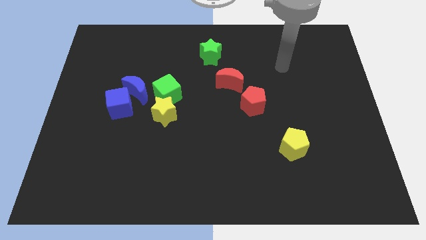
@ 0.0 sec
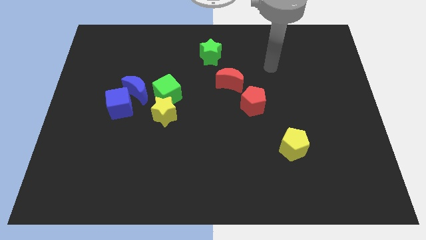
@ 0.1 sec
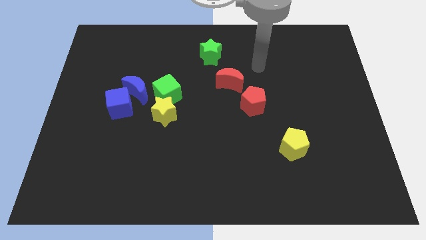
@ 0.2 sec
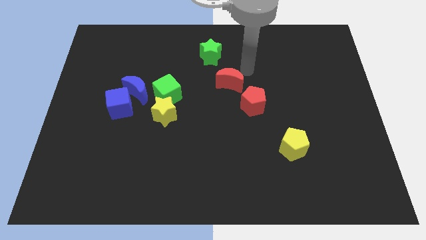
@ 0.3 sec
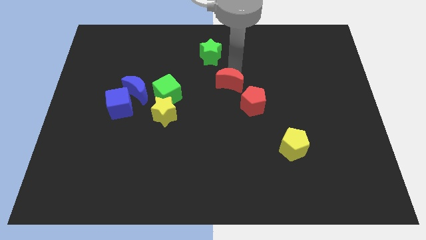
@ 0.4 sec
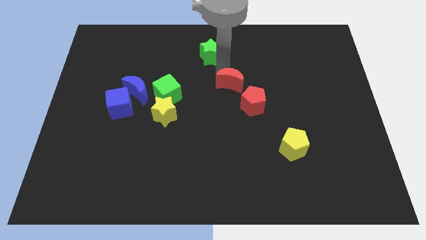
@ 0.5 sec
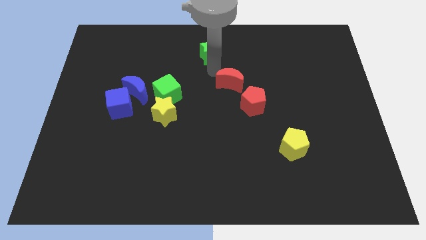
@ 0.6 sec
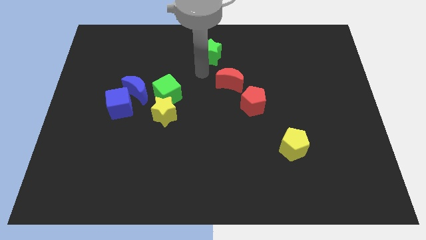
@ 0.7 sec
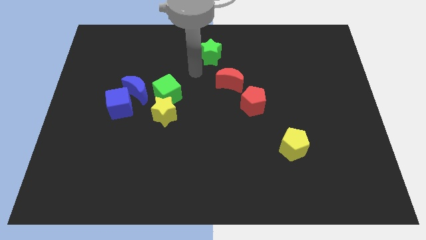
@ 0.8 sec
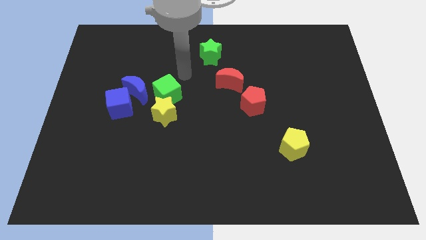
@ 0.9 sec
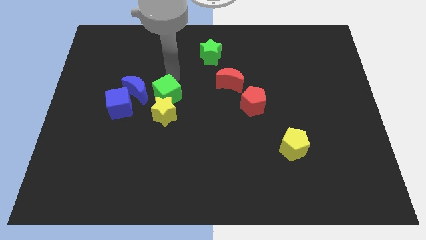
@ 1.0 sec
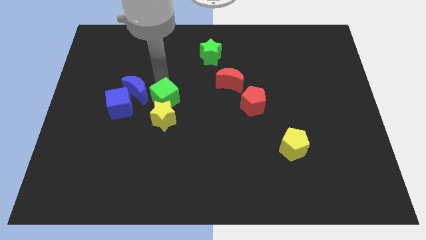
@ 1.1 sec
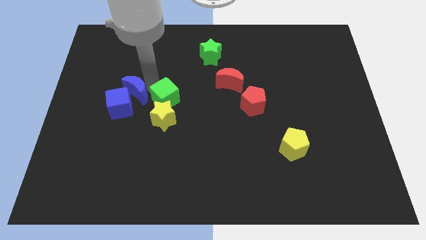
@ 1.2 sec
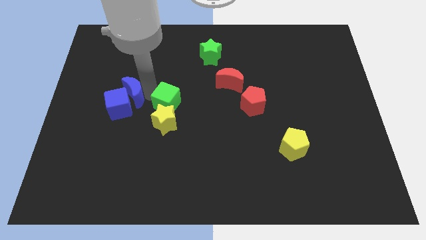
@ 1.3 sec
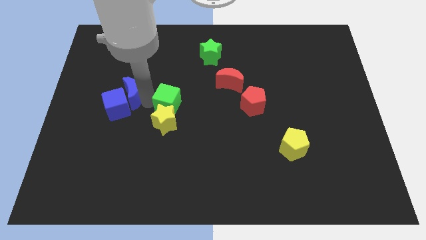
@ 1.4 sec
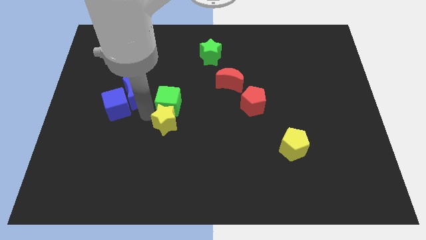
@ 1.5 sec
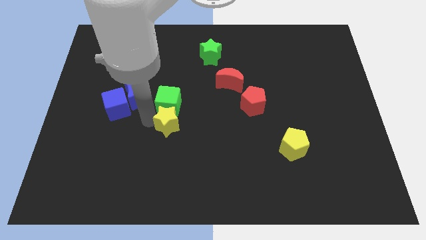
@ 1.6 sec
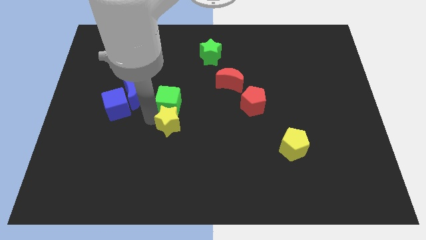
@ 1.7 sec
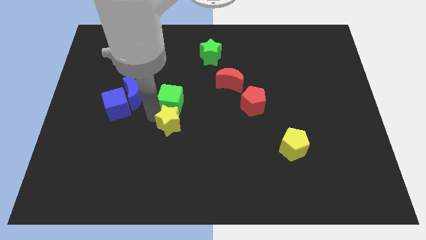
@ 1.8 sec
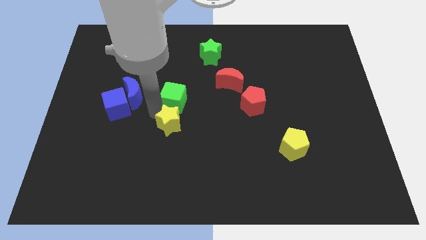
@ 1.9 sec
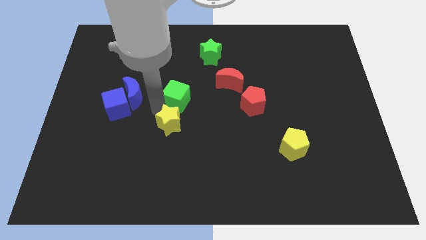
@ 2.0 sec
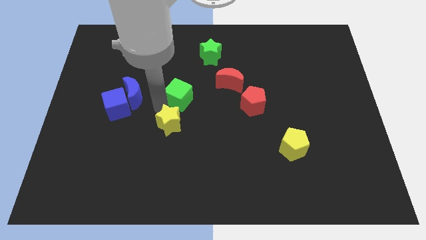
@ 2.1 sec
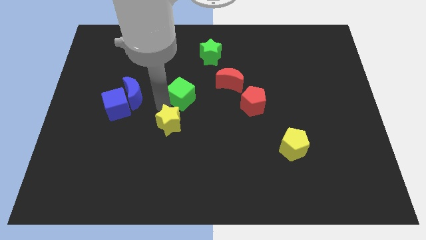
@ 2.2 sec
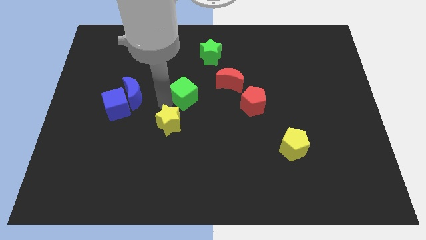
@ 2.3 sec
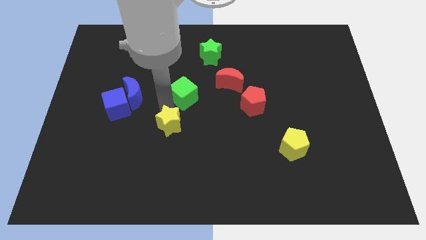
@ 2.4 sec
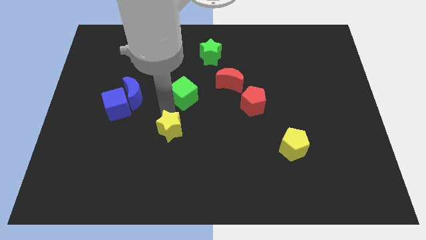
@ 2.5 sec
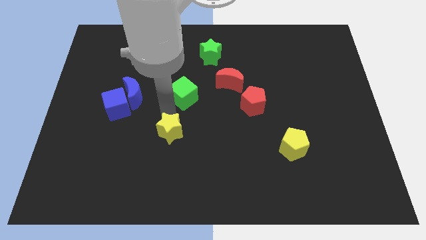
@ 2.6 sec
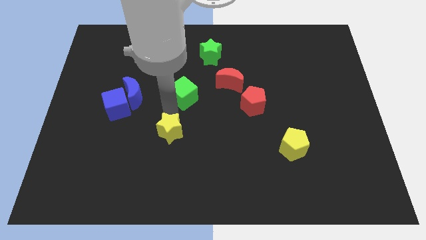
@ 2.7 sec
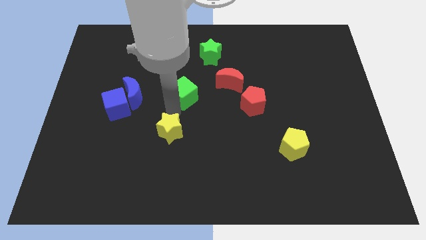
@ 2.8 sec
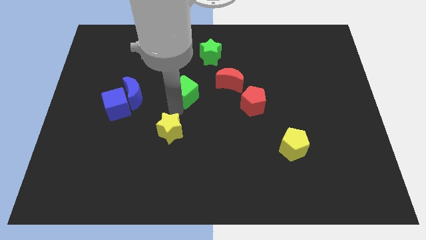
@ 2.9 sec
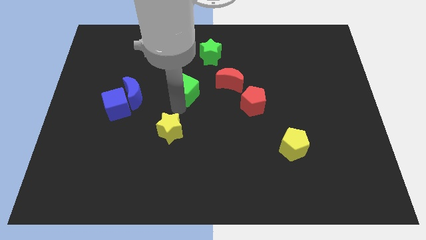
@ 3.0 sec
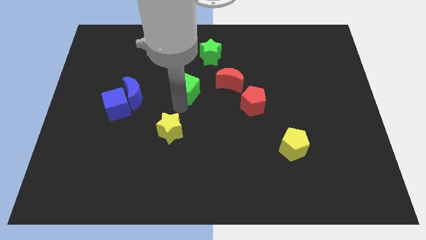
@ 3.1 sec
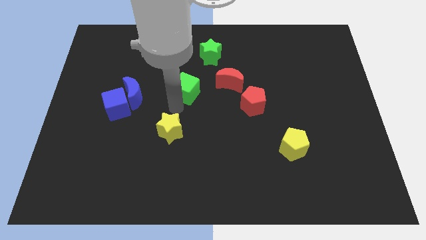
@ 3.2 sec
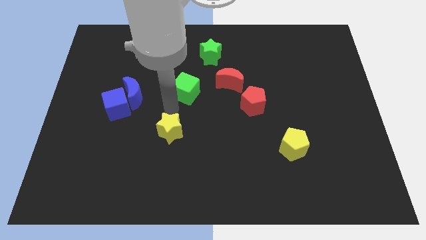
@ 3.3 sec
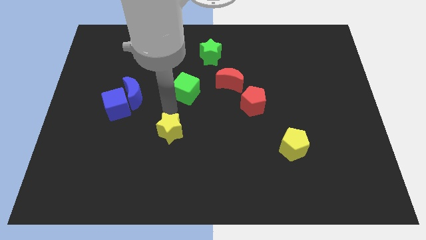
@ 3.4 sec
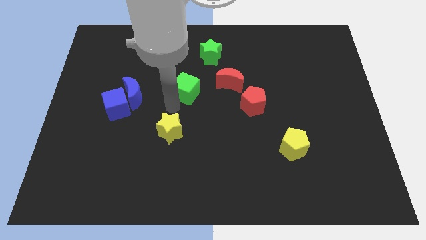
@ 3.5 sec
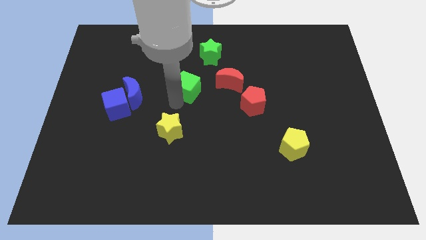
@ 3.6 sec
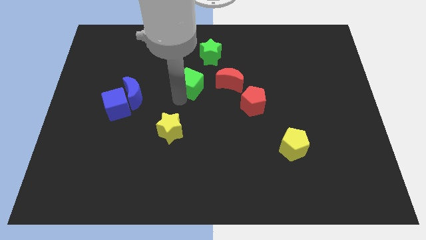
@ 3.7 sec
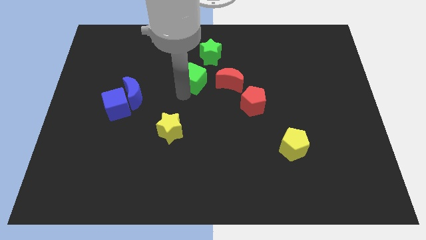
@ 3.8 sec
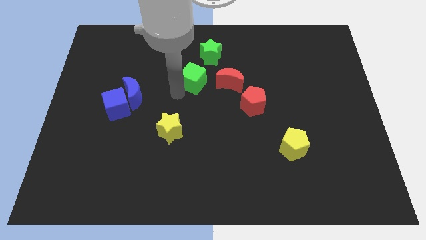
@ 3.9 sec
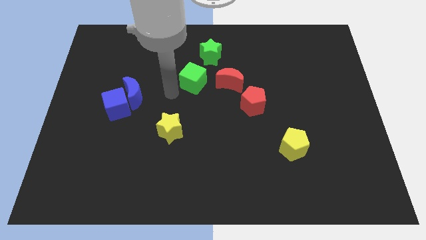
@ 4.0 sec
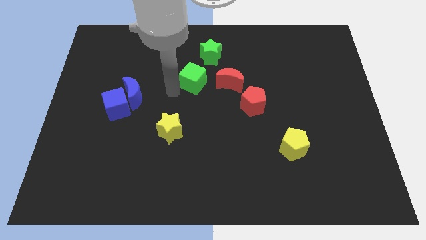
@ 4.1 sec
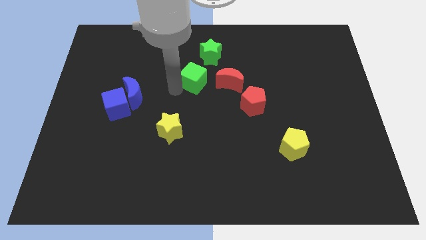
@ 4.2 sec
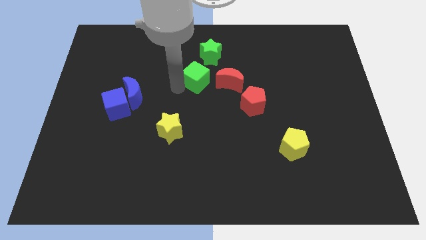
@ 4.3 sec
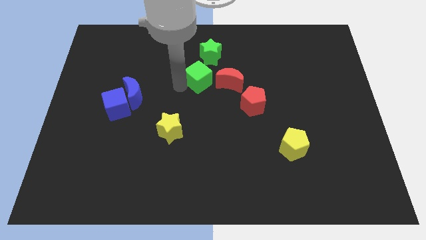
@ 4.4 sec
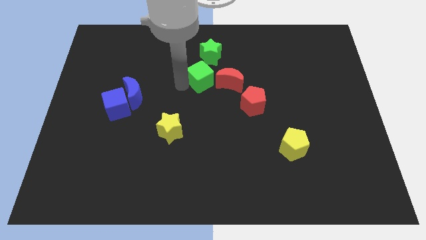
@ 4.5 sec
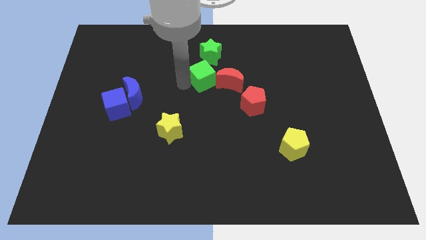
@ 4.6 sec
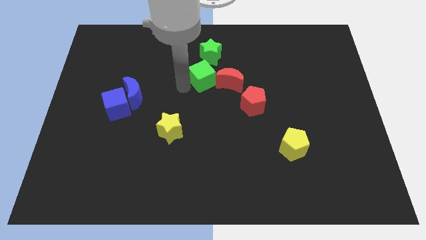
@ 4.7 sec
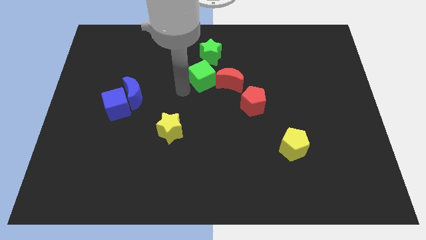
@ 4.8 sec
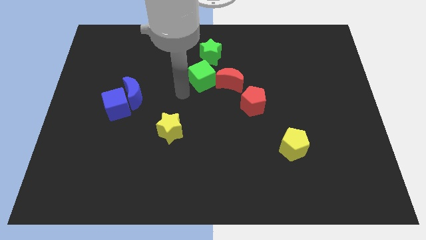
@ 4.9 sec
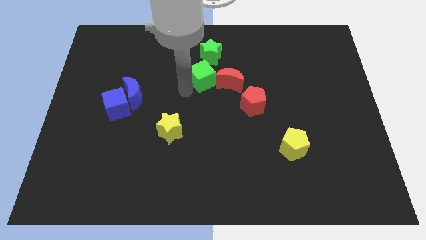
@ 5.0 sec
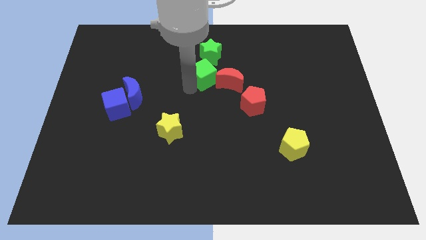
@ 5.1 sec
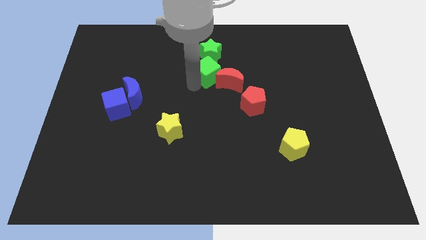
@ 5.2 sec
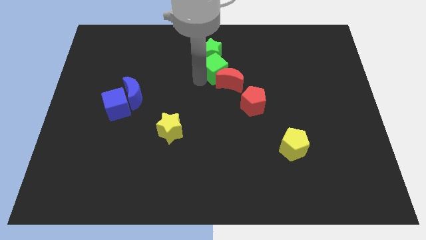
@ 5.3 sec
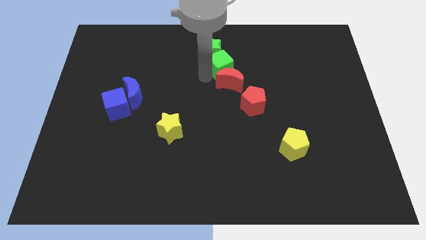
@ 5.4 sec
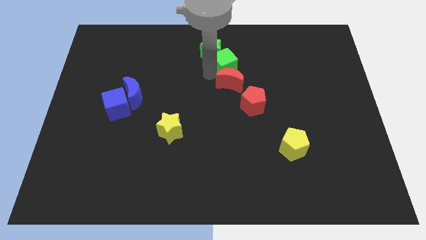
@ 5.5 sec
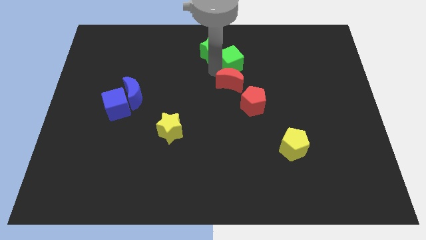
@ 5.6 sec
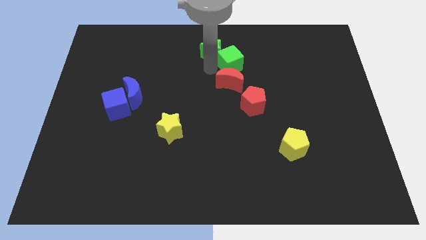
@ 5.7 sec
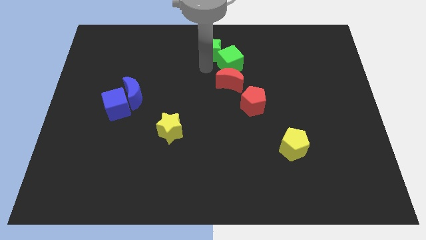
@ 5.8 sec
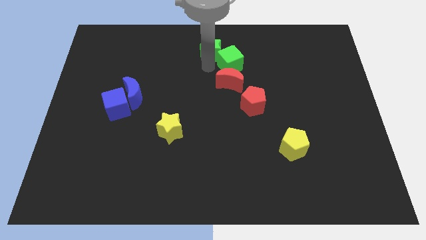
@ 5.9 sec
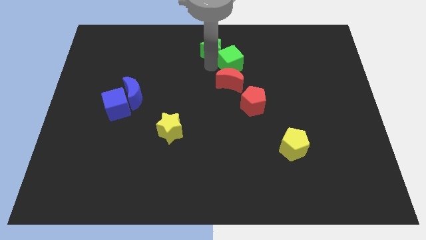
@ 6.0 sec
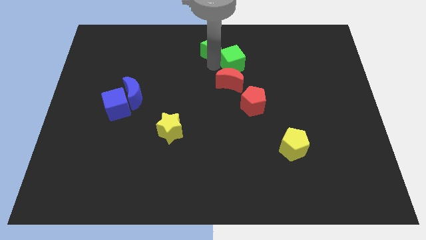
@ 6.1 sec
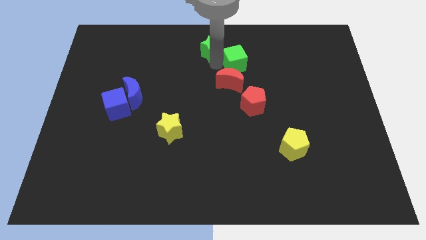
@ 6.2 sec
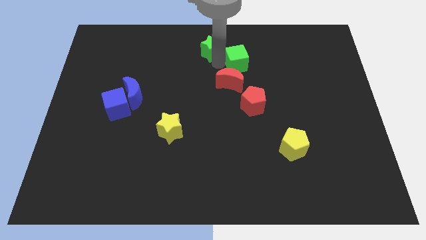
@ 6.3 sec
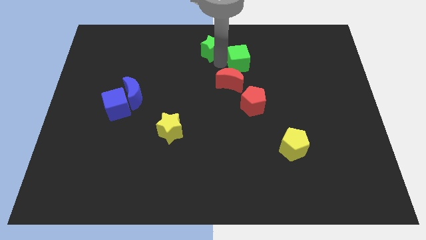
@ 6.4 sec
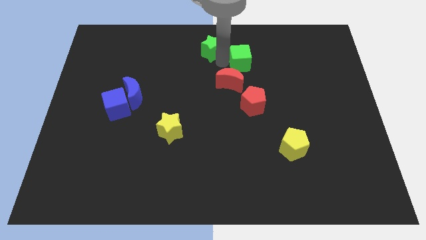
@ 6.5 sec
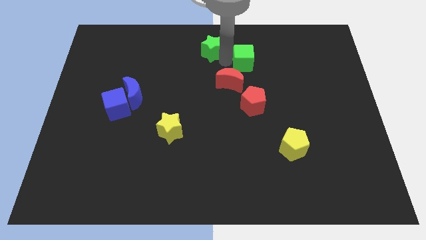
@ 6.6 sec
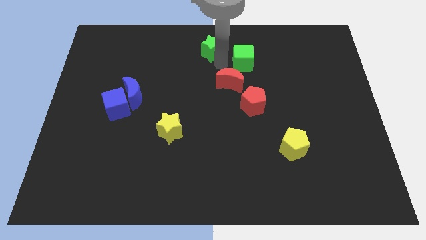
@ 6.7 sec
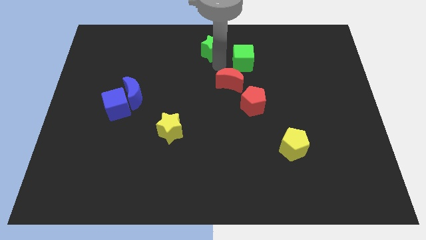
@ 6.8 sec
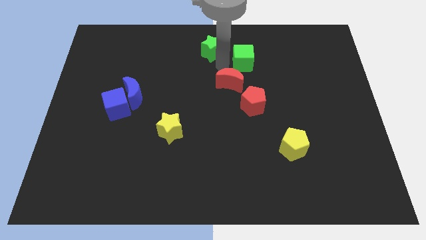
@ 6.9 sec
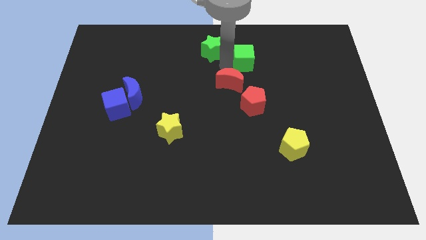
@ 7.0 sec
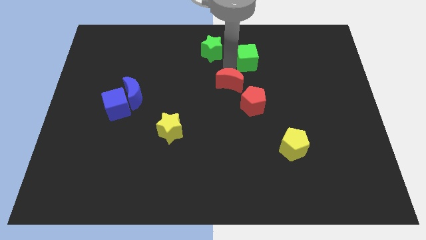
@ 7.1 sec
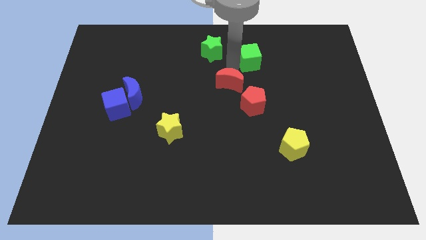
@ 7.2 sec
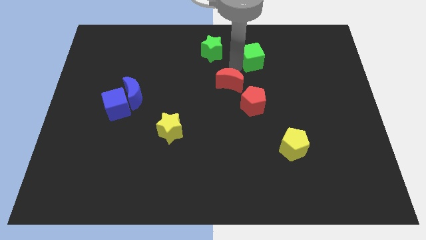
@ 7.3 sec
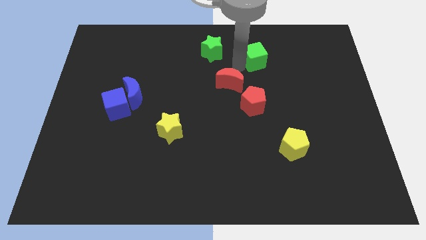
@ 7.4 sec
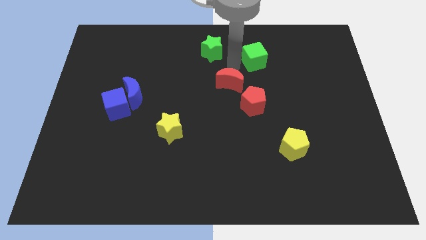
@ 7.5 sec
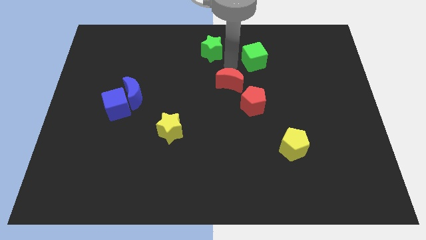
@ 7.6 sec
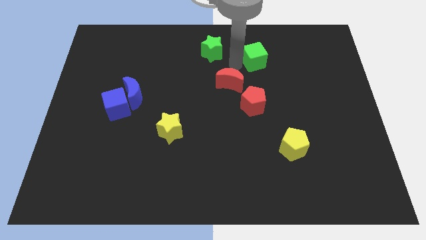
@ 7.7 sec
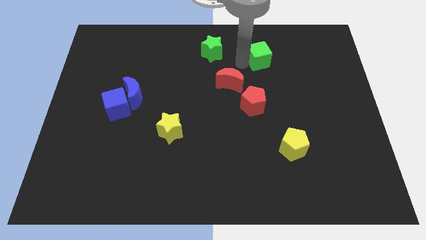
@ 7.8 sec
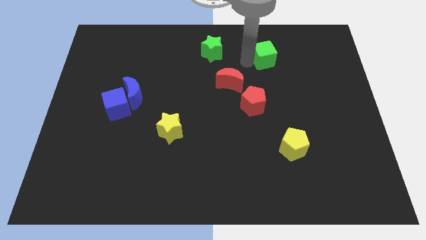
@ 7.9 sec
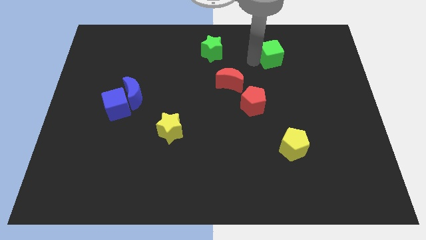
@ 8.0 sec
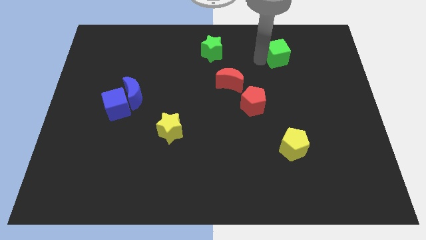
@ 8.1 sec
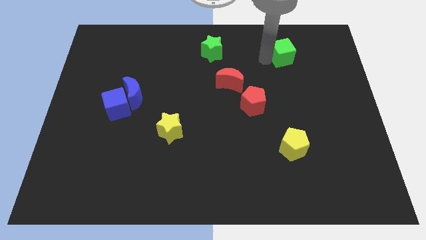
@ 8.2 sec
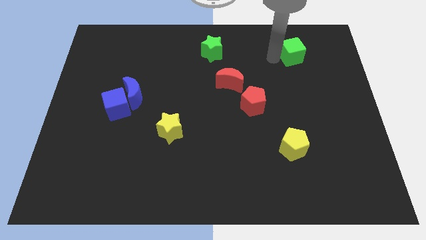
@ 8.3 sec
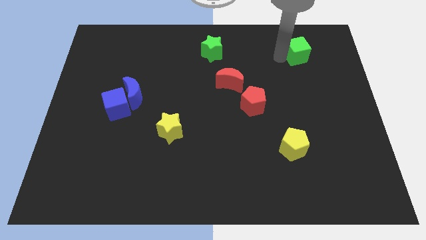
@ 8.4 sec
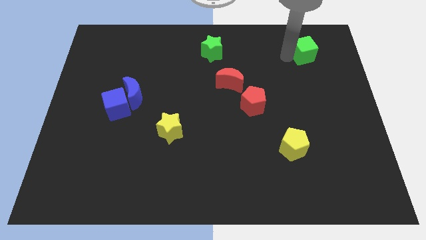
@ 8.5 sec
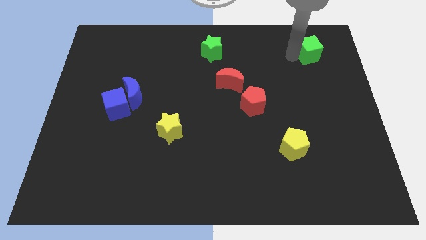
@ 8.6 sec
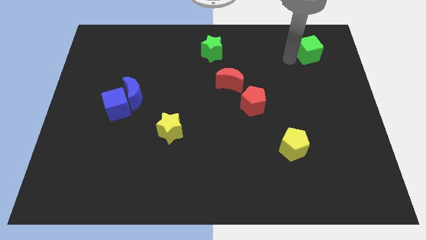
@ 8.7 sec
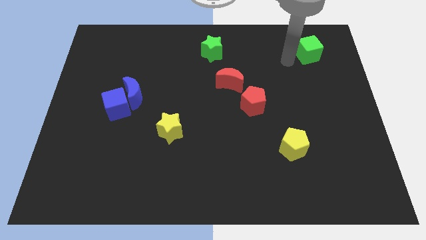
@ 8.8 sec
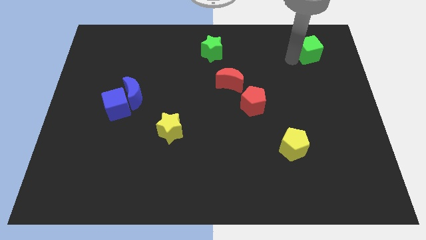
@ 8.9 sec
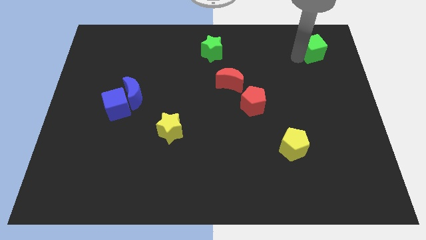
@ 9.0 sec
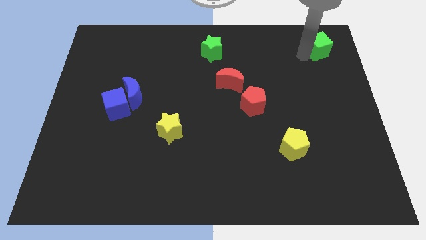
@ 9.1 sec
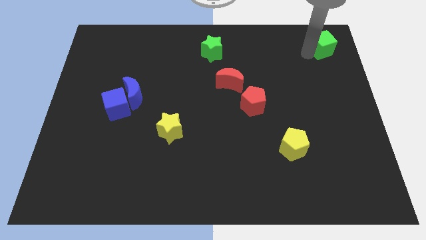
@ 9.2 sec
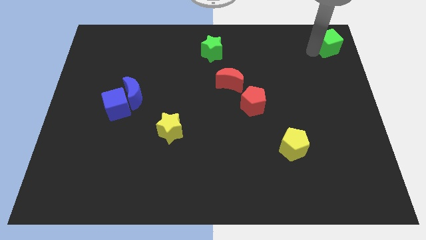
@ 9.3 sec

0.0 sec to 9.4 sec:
put the green cube to the upper right corner
